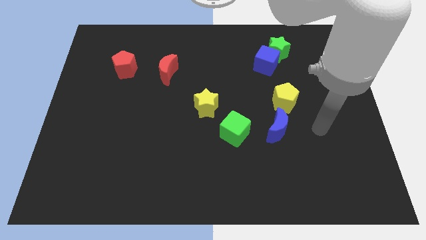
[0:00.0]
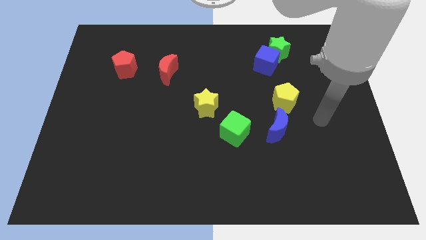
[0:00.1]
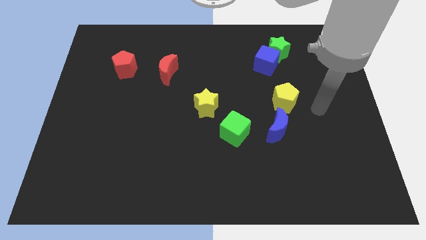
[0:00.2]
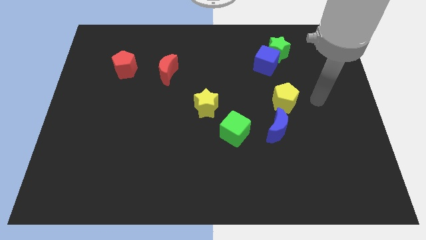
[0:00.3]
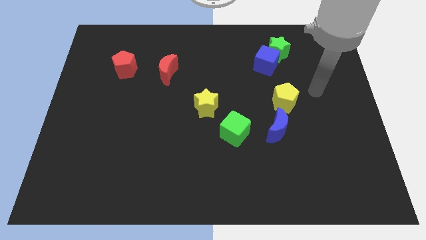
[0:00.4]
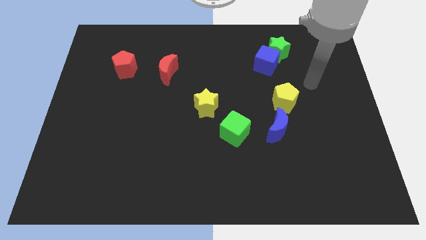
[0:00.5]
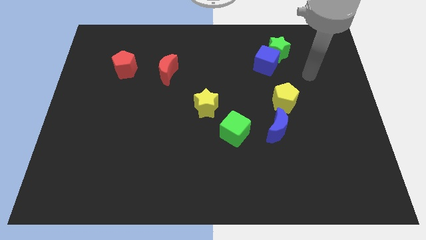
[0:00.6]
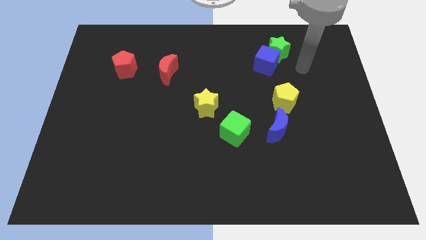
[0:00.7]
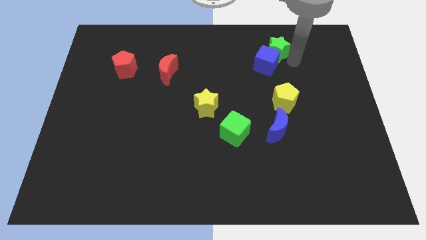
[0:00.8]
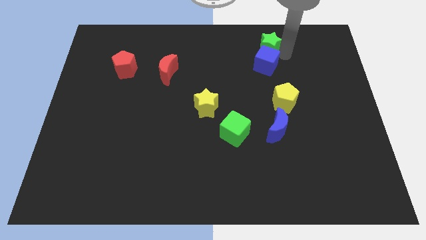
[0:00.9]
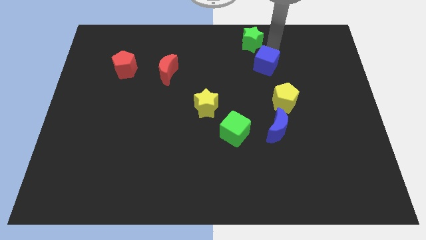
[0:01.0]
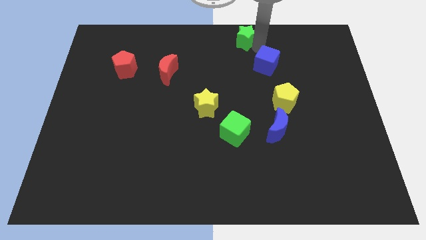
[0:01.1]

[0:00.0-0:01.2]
separate the blue cube from the green star

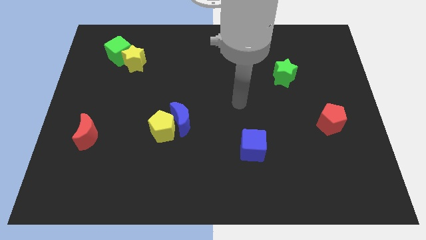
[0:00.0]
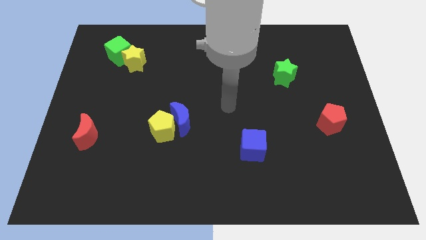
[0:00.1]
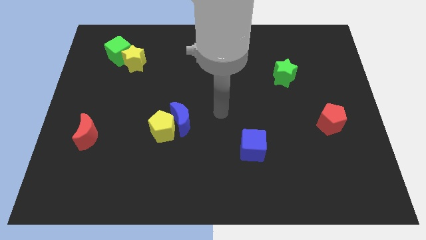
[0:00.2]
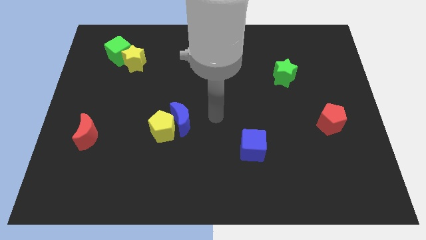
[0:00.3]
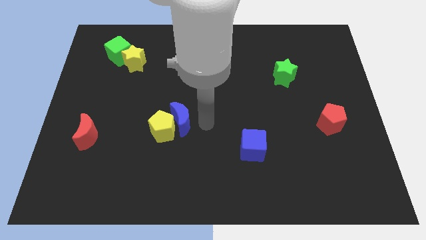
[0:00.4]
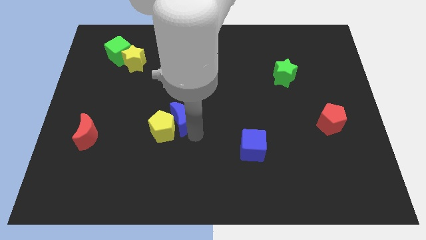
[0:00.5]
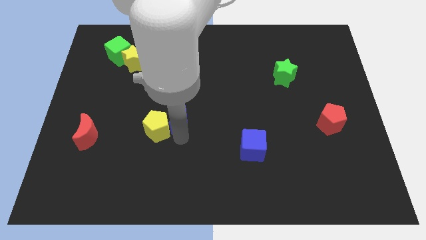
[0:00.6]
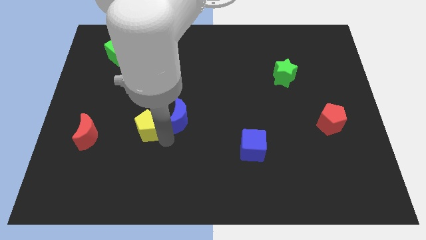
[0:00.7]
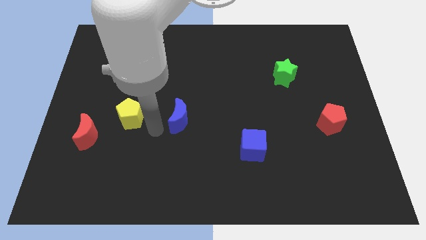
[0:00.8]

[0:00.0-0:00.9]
pull the blue moon apart from the yellow pentagon

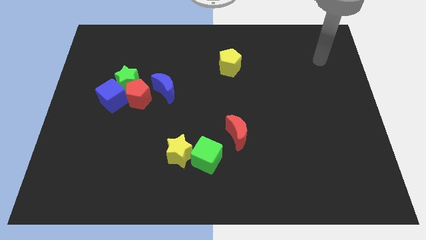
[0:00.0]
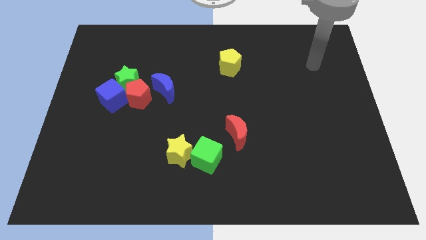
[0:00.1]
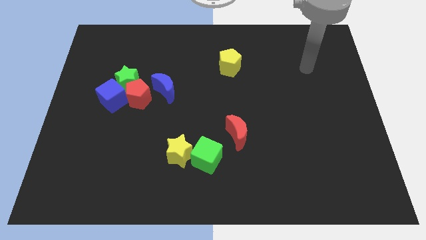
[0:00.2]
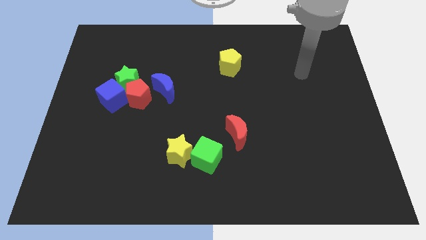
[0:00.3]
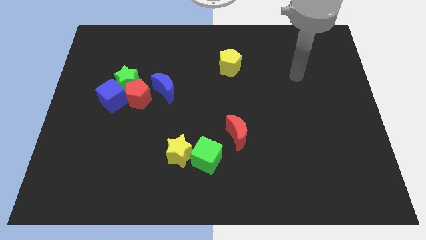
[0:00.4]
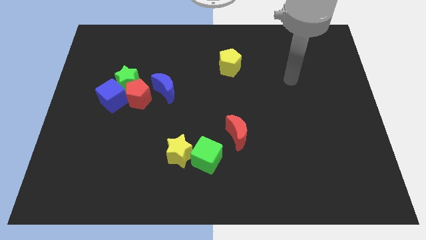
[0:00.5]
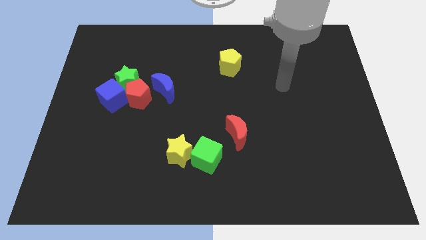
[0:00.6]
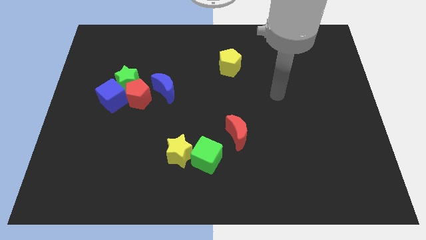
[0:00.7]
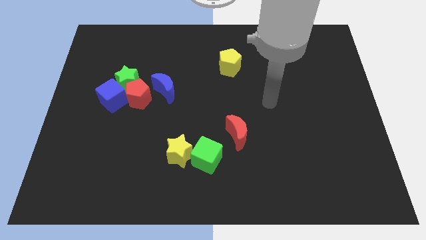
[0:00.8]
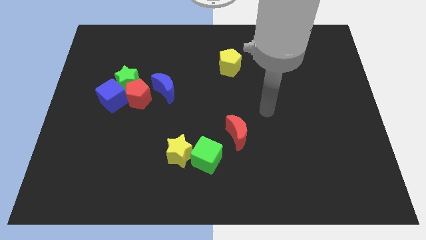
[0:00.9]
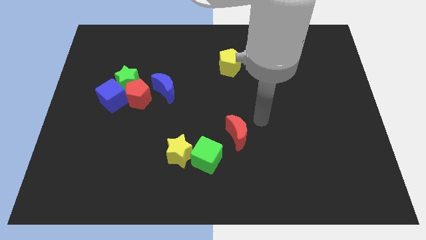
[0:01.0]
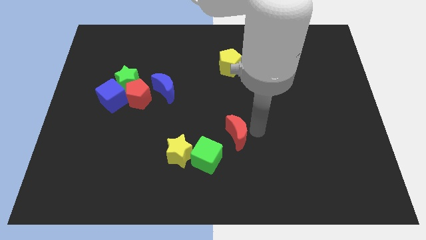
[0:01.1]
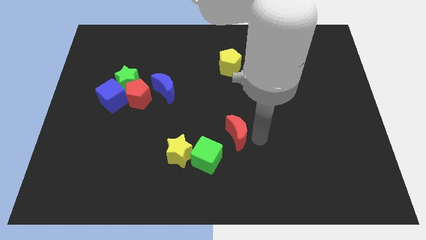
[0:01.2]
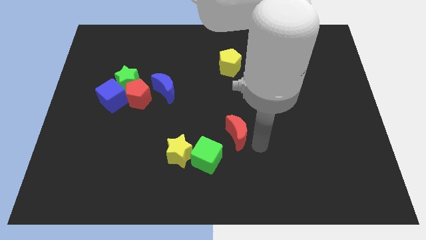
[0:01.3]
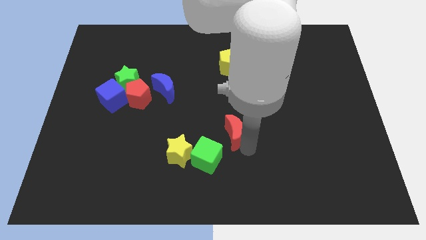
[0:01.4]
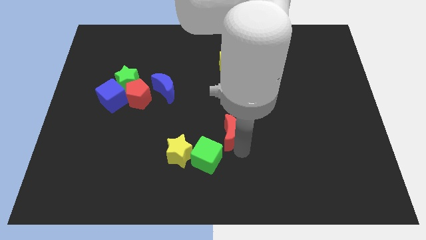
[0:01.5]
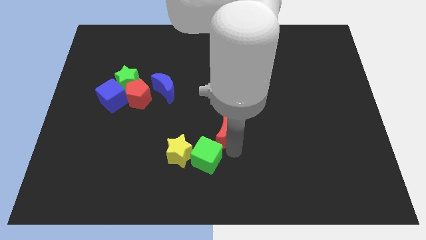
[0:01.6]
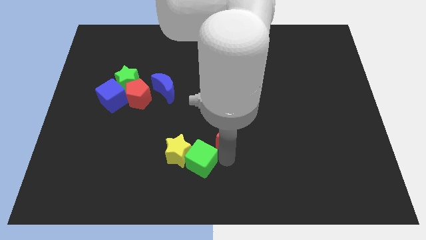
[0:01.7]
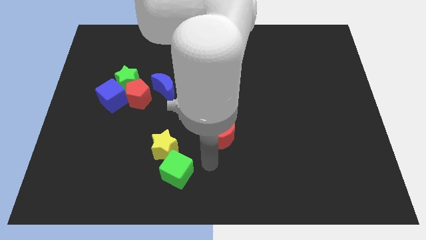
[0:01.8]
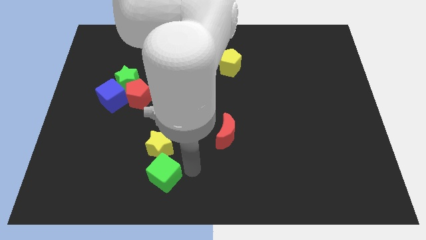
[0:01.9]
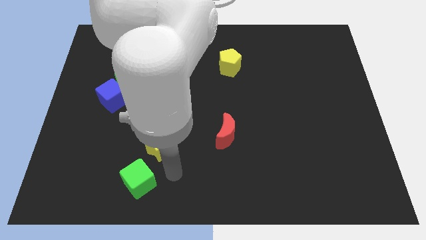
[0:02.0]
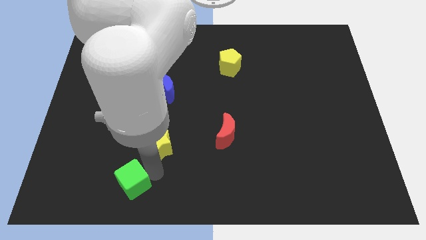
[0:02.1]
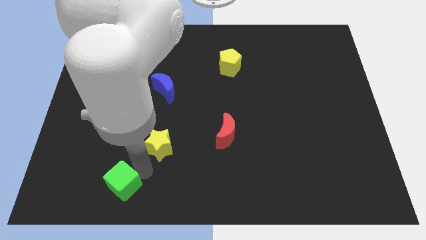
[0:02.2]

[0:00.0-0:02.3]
pull the yellow star apart from the green cube

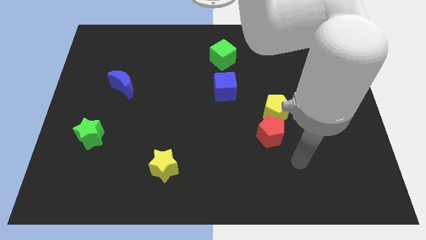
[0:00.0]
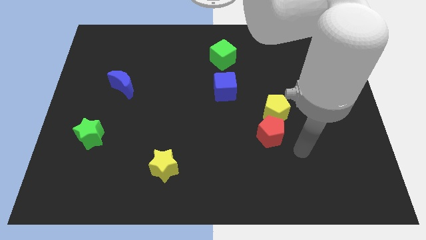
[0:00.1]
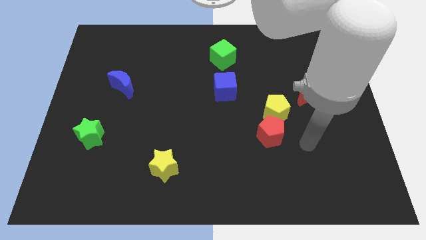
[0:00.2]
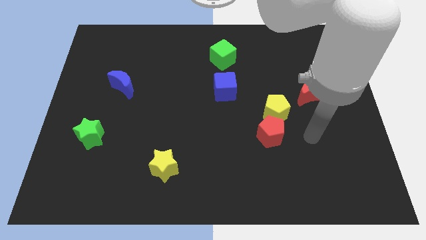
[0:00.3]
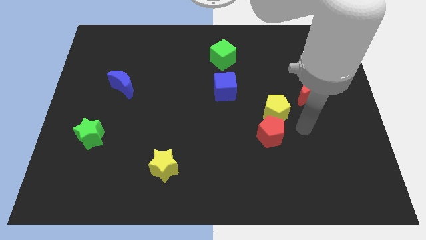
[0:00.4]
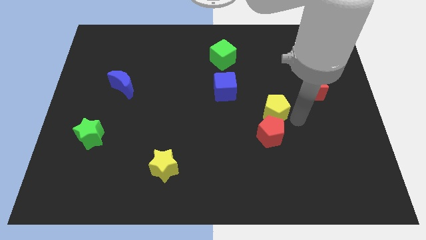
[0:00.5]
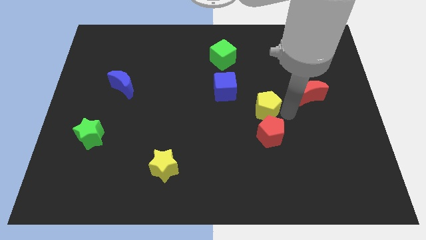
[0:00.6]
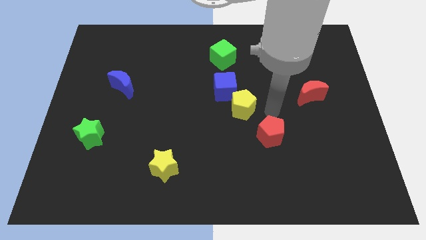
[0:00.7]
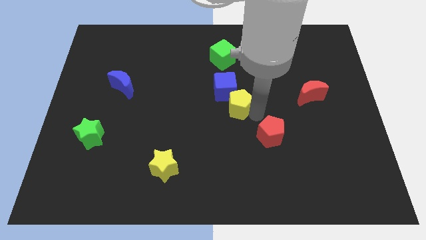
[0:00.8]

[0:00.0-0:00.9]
pull the red pentagon apart from the yellow pentagon

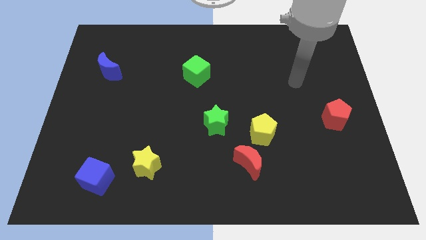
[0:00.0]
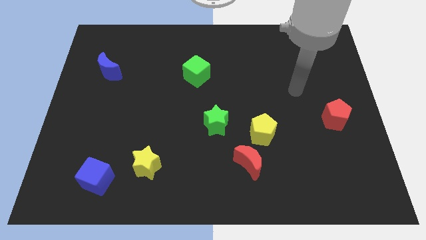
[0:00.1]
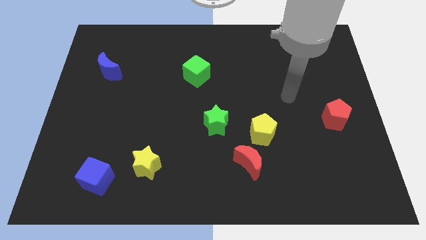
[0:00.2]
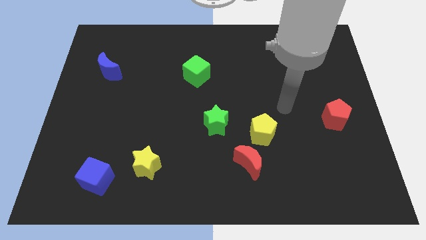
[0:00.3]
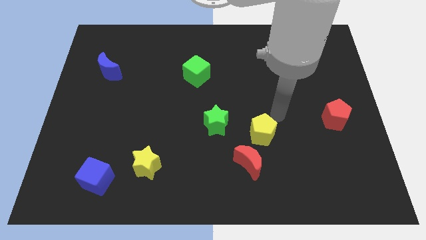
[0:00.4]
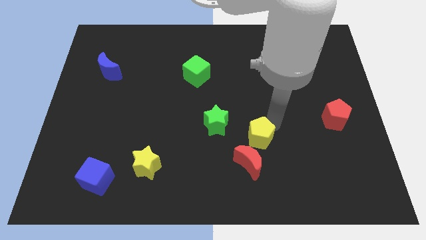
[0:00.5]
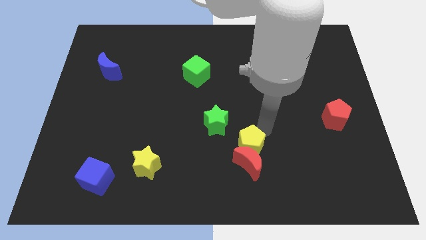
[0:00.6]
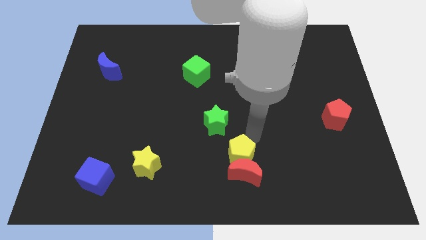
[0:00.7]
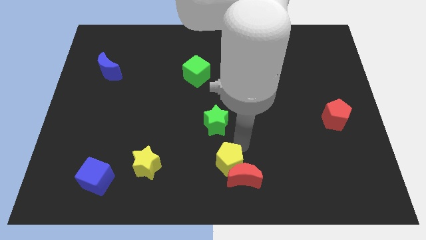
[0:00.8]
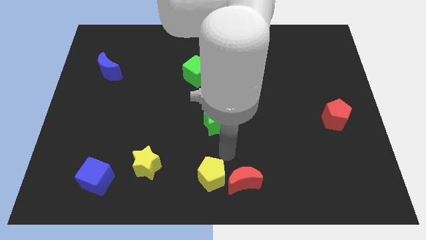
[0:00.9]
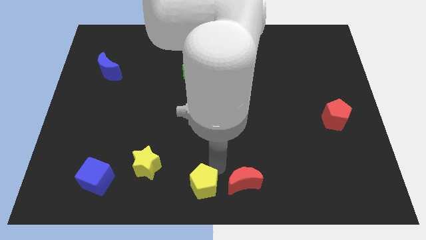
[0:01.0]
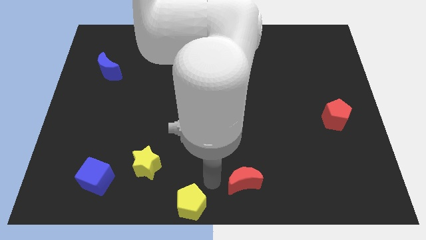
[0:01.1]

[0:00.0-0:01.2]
separate the red moon from the yellow pentagon

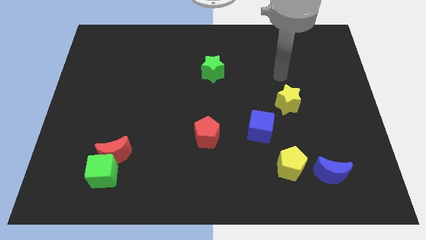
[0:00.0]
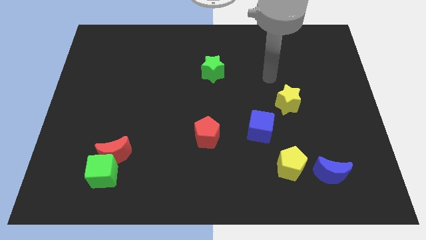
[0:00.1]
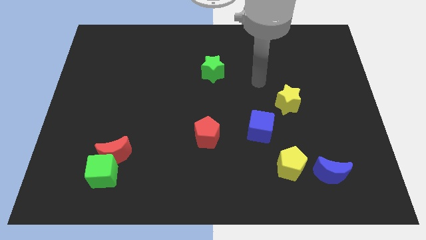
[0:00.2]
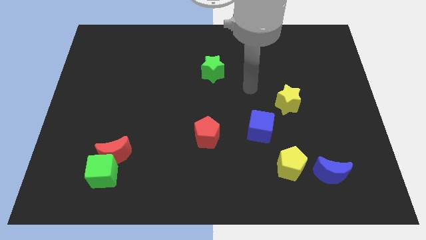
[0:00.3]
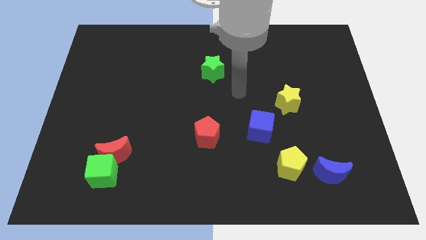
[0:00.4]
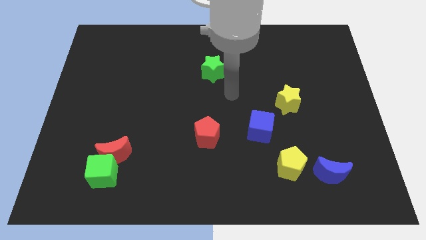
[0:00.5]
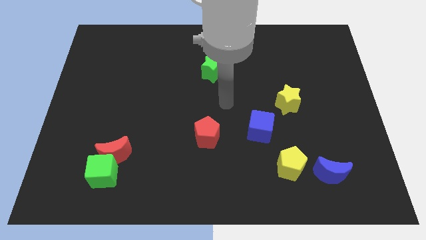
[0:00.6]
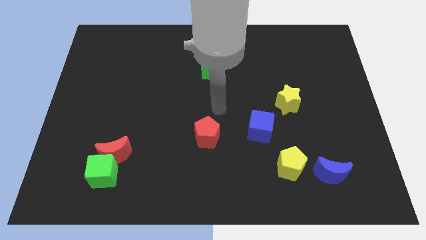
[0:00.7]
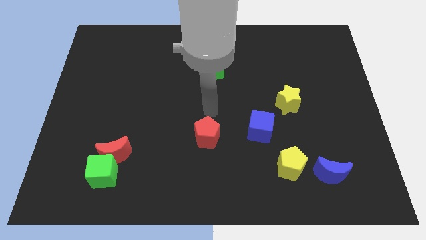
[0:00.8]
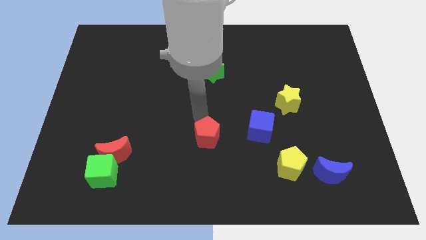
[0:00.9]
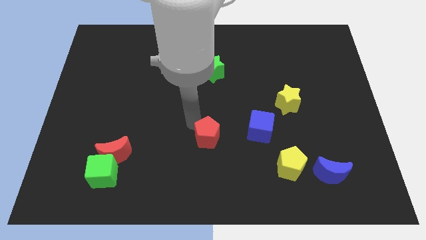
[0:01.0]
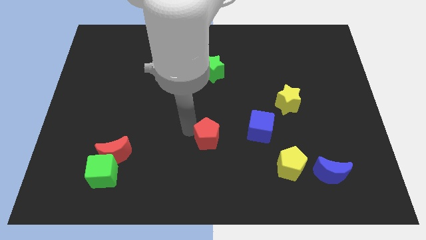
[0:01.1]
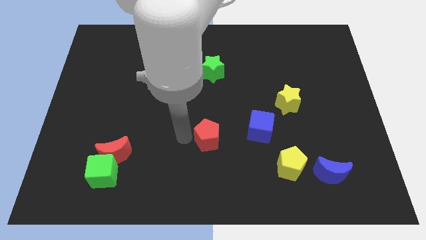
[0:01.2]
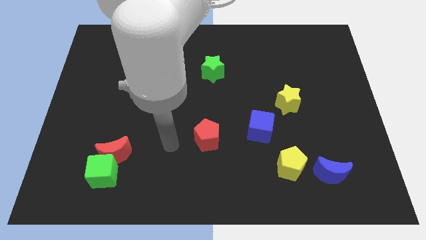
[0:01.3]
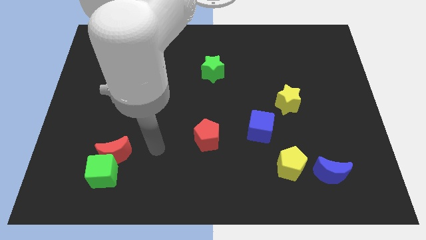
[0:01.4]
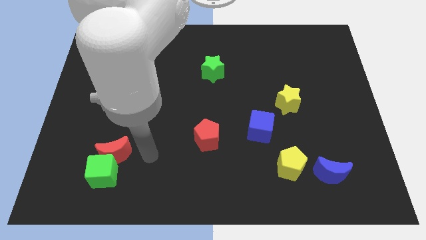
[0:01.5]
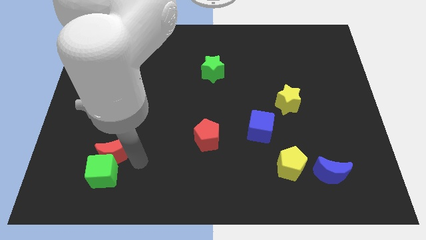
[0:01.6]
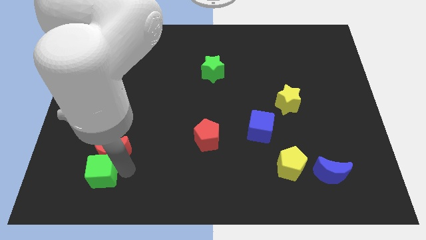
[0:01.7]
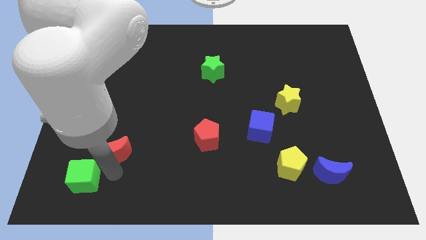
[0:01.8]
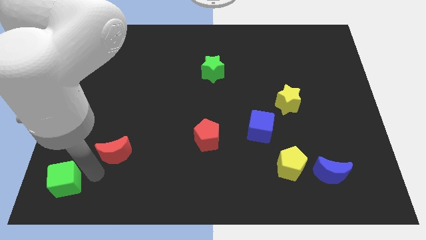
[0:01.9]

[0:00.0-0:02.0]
separate the red moon from the green cube

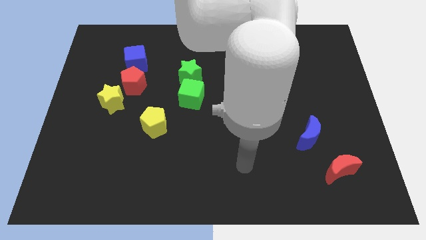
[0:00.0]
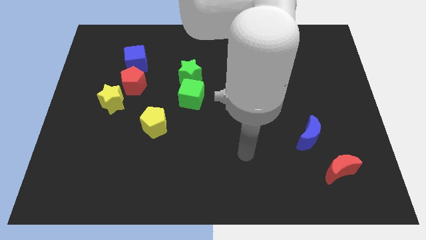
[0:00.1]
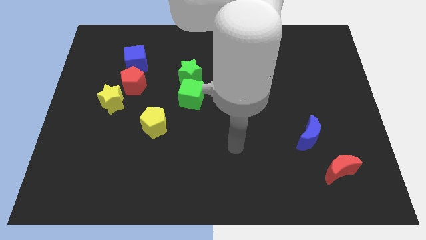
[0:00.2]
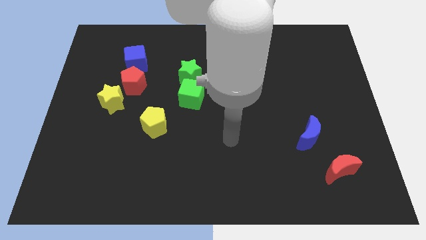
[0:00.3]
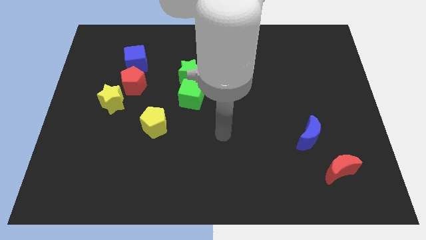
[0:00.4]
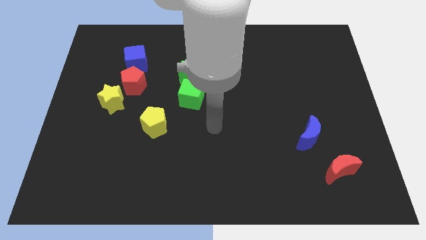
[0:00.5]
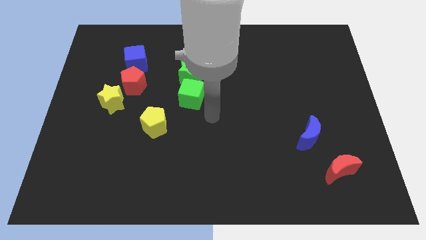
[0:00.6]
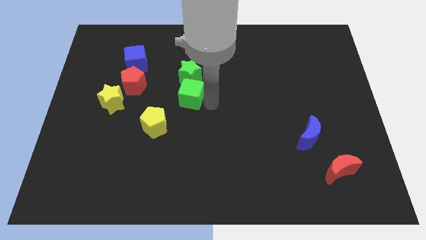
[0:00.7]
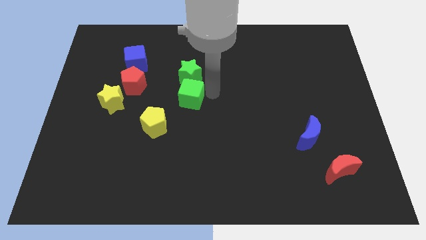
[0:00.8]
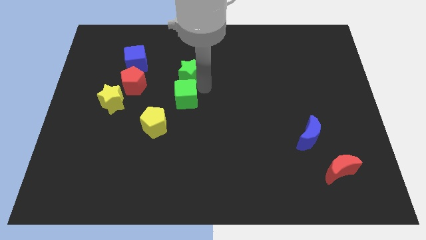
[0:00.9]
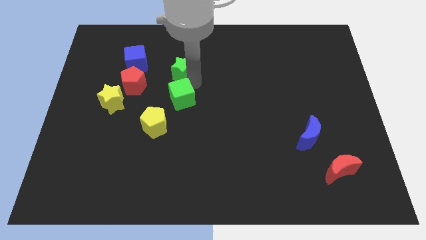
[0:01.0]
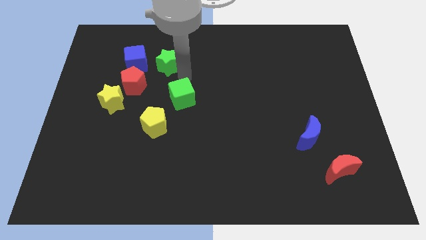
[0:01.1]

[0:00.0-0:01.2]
move the green cube away from the green star
